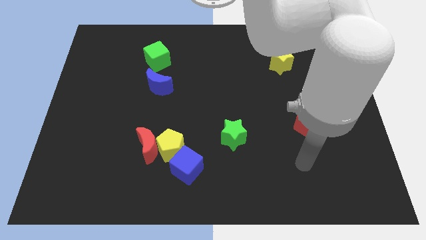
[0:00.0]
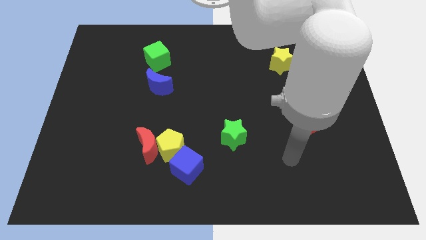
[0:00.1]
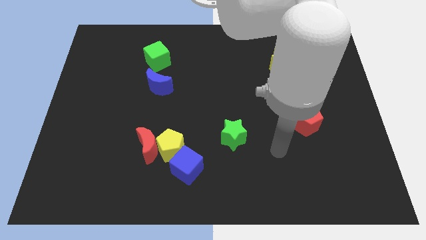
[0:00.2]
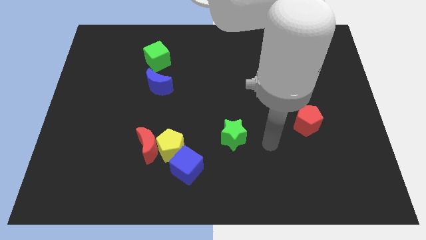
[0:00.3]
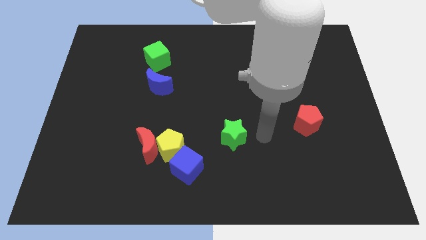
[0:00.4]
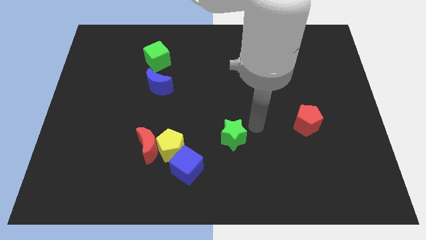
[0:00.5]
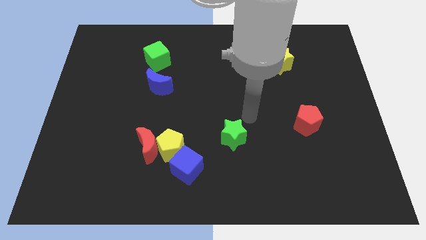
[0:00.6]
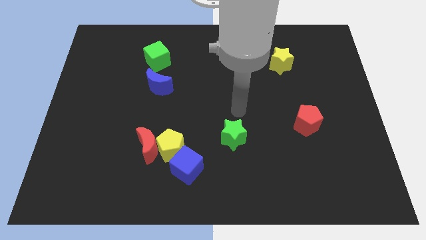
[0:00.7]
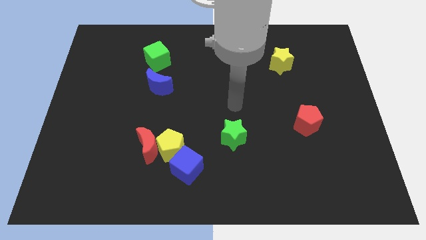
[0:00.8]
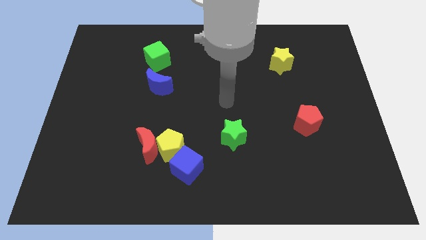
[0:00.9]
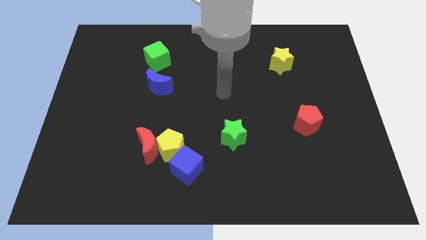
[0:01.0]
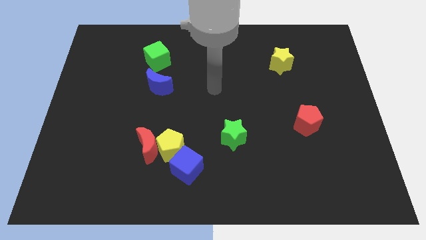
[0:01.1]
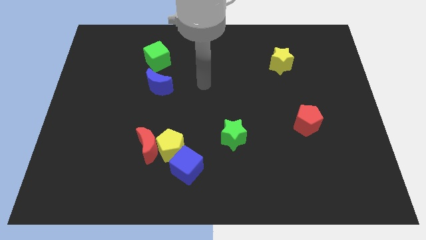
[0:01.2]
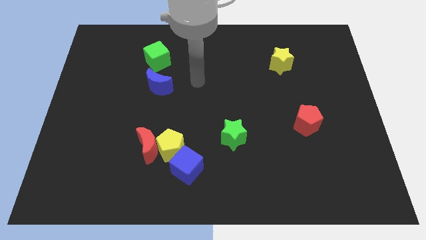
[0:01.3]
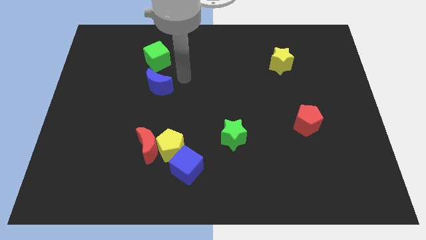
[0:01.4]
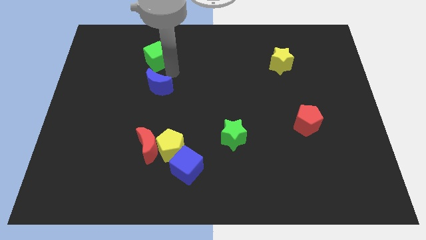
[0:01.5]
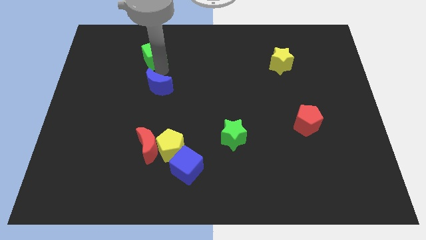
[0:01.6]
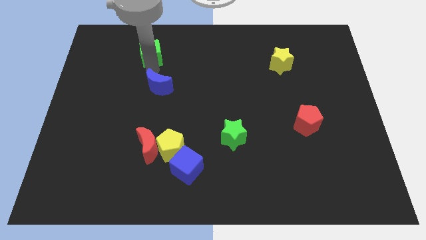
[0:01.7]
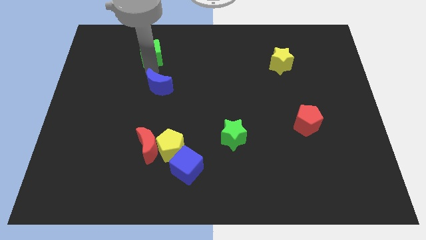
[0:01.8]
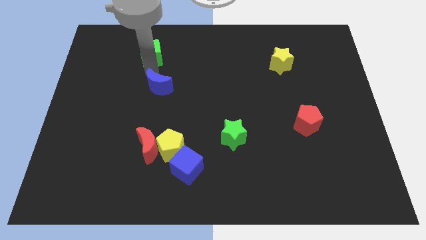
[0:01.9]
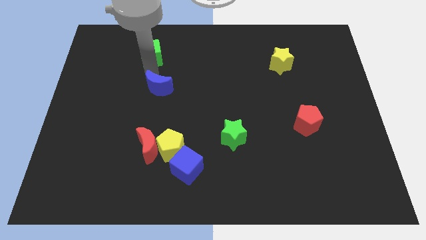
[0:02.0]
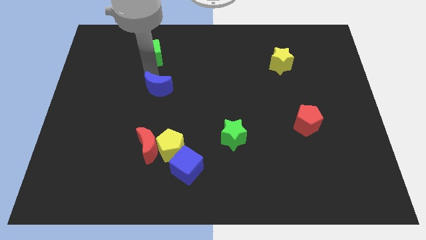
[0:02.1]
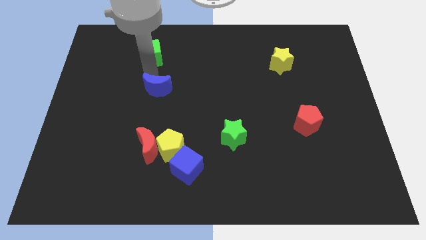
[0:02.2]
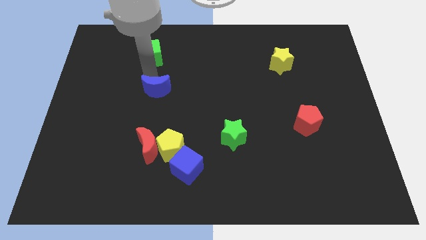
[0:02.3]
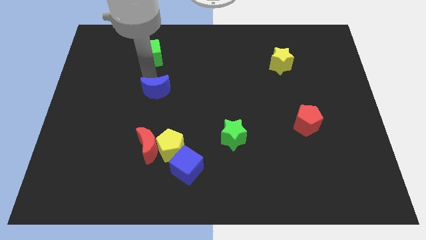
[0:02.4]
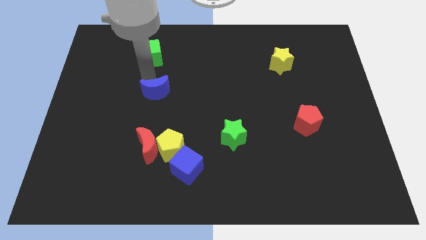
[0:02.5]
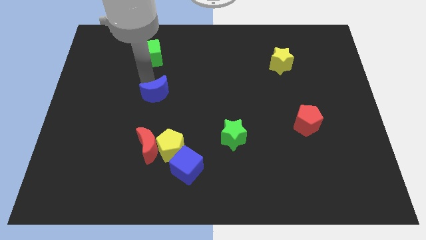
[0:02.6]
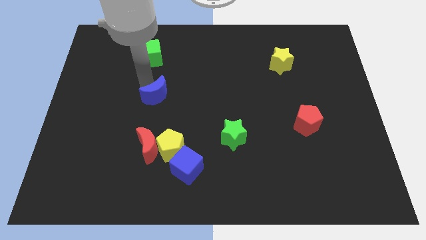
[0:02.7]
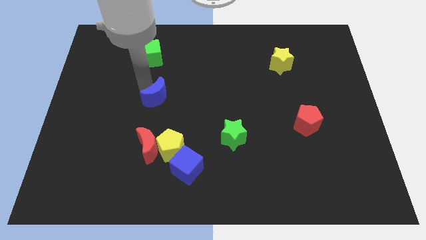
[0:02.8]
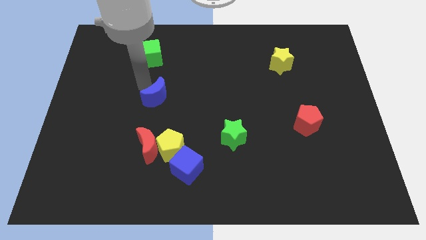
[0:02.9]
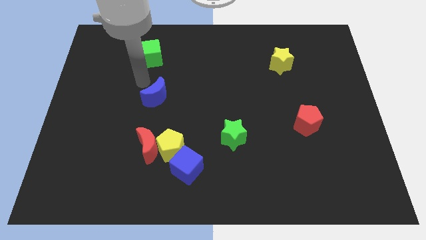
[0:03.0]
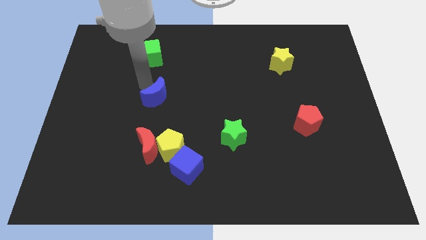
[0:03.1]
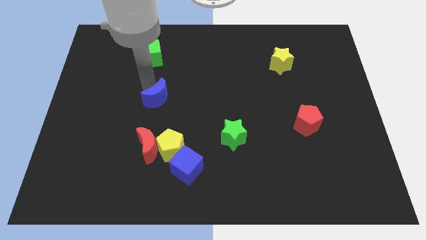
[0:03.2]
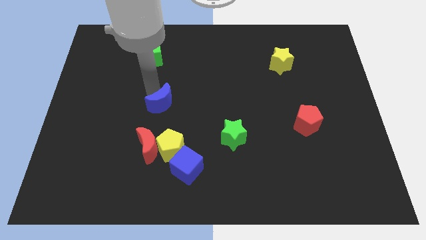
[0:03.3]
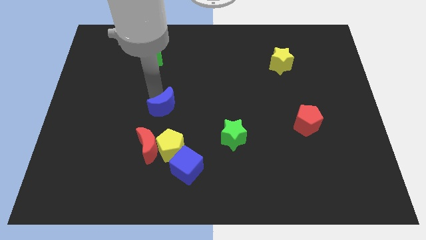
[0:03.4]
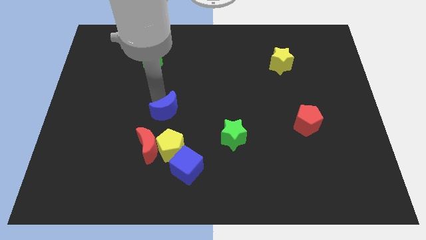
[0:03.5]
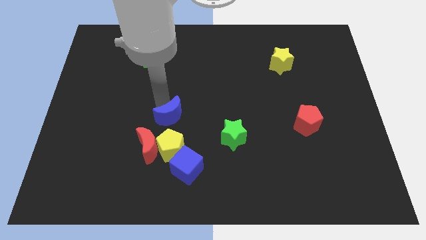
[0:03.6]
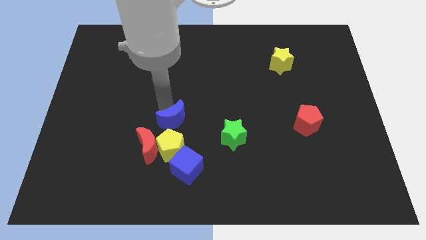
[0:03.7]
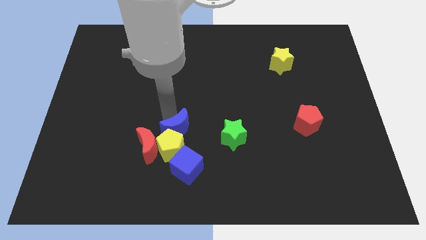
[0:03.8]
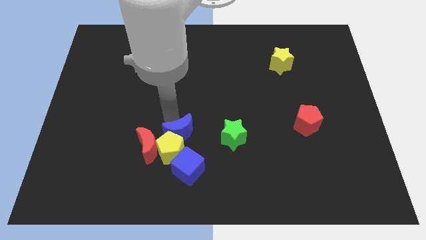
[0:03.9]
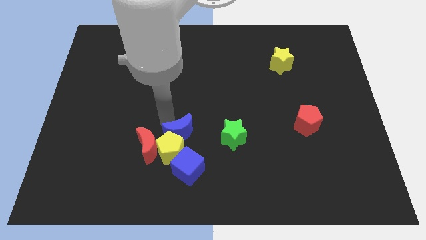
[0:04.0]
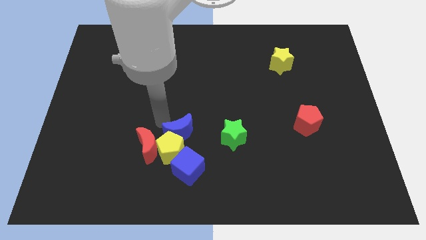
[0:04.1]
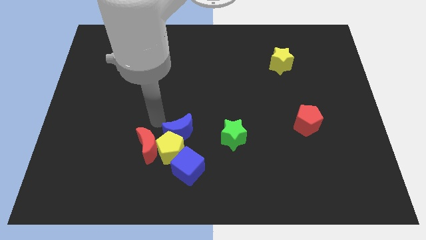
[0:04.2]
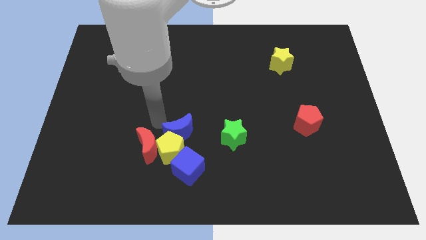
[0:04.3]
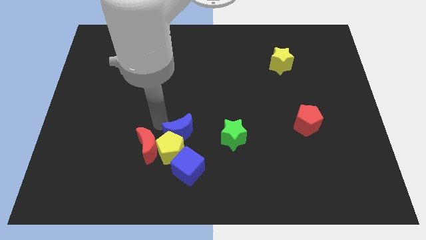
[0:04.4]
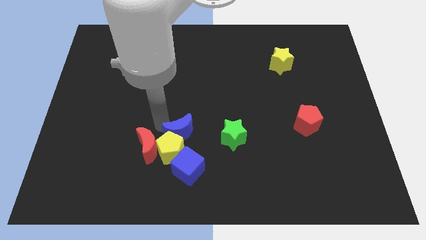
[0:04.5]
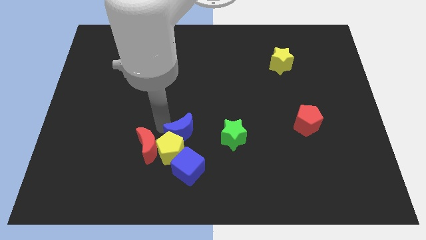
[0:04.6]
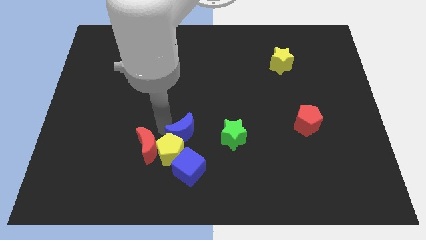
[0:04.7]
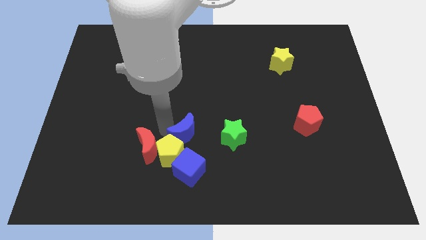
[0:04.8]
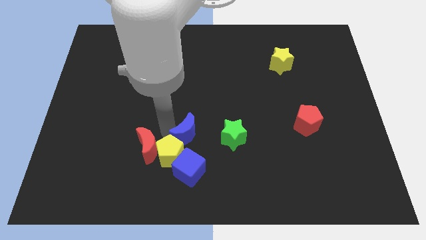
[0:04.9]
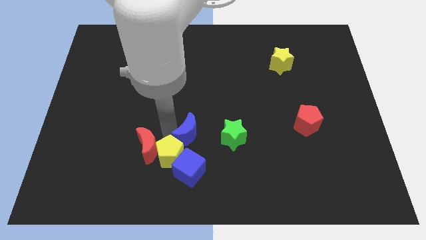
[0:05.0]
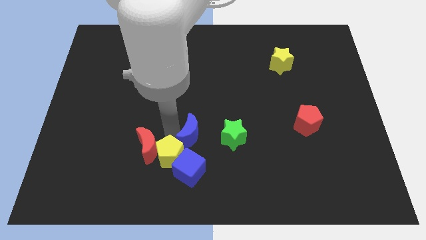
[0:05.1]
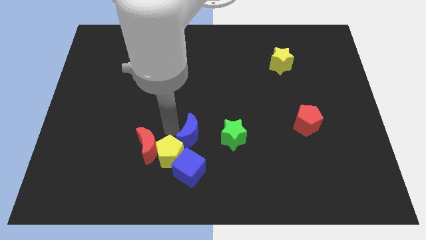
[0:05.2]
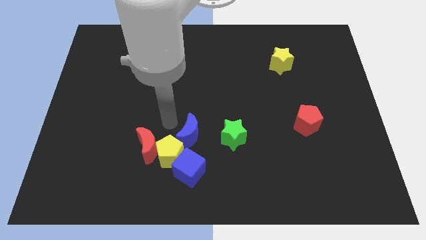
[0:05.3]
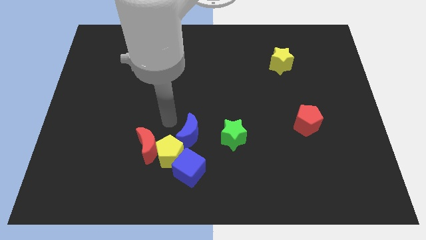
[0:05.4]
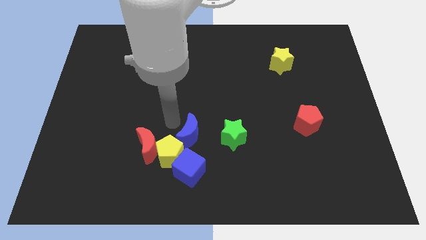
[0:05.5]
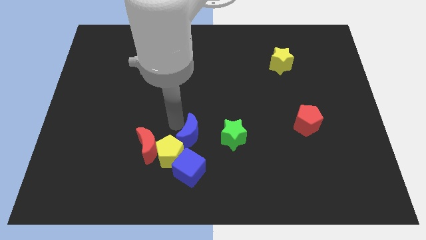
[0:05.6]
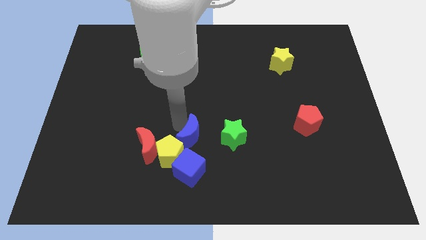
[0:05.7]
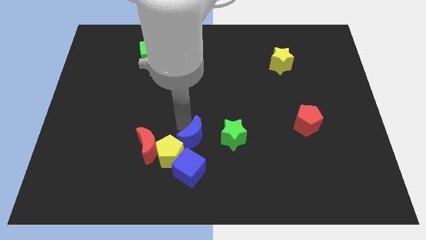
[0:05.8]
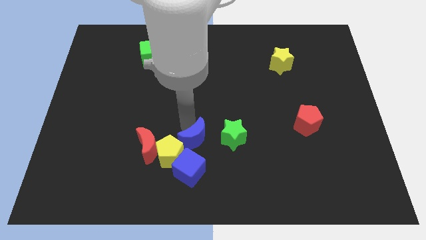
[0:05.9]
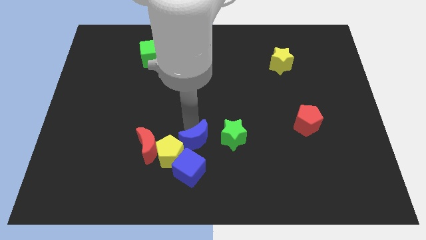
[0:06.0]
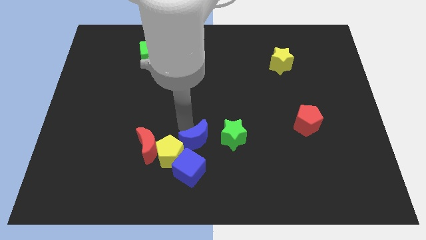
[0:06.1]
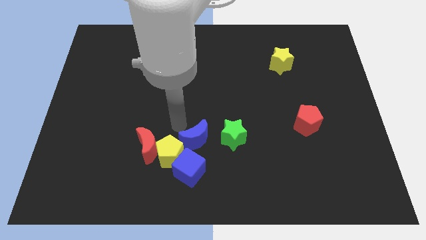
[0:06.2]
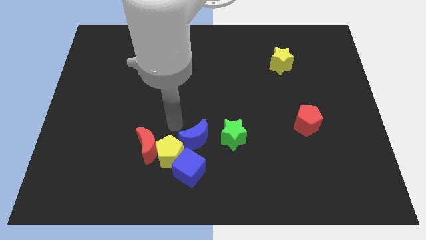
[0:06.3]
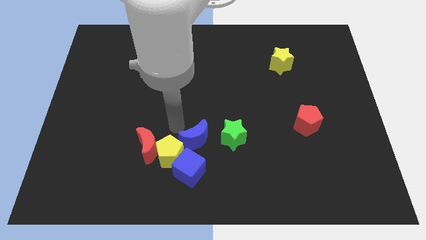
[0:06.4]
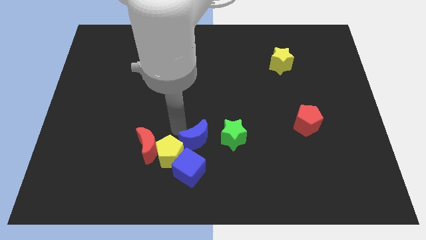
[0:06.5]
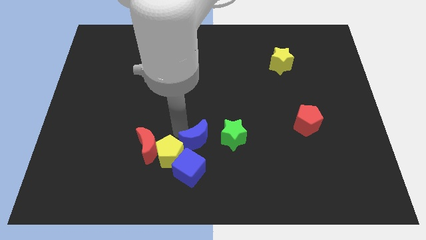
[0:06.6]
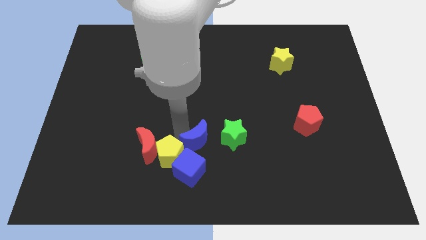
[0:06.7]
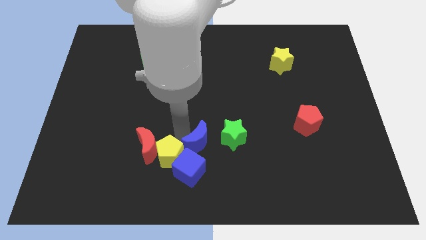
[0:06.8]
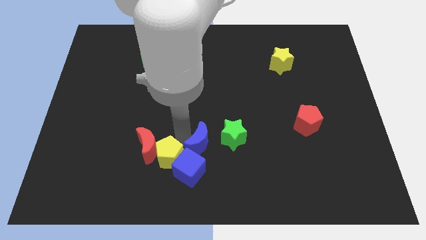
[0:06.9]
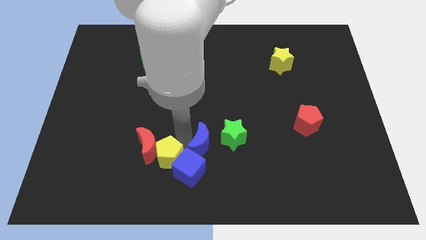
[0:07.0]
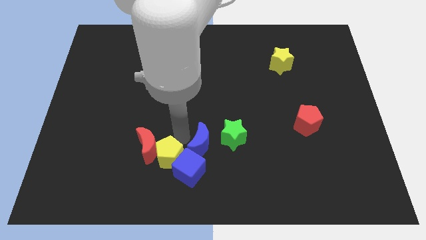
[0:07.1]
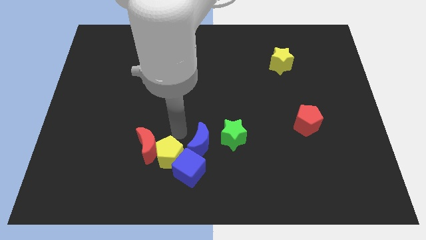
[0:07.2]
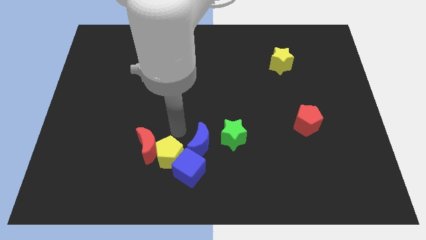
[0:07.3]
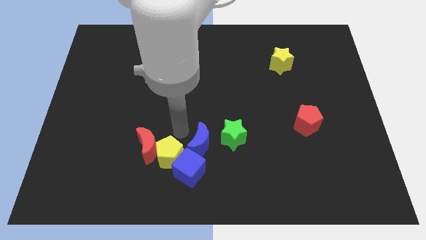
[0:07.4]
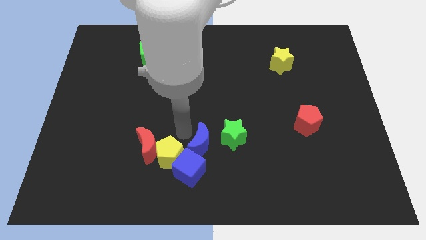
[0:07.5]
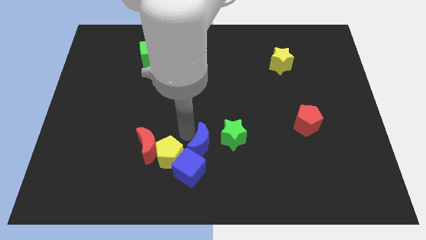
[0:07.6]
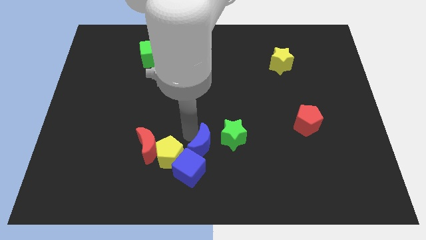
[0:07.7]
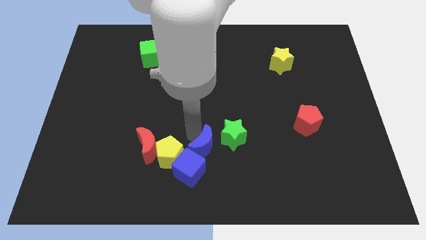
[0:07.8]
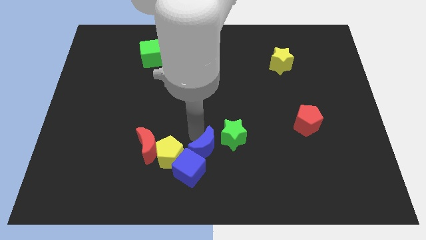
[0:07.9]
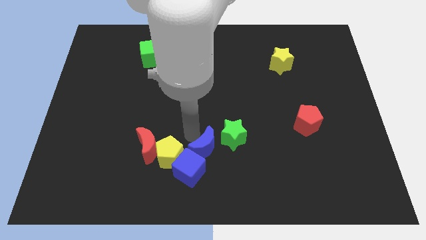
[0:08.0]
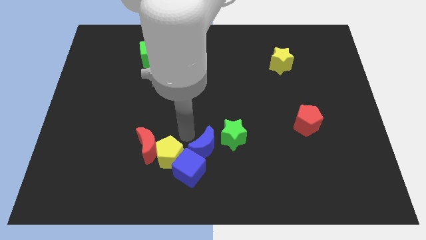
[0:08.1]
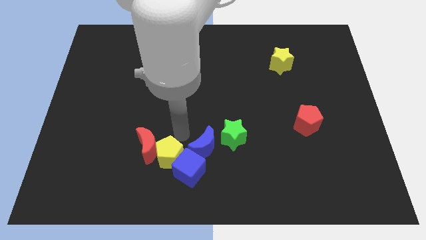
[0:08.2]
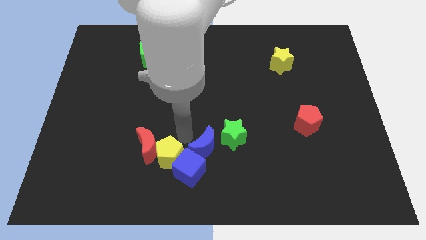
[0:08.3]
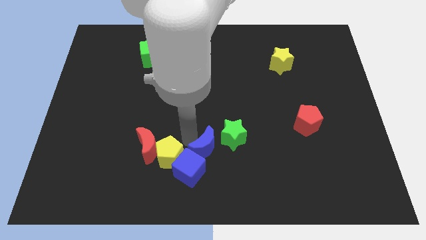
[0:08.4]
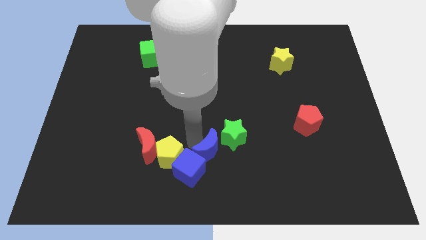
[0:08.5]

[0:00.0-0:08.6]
push the blue moon just right of the blue cube
